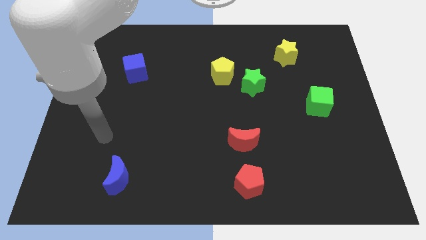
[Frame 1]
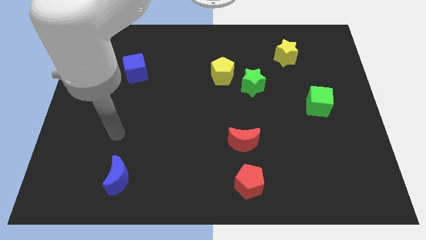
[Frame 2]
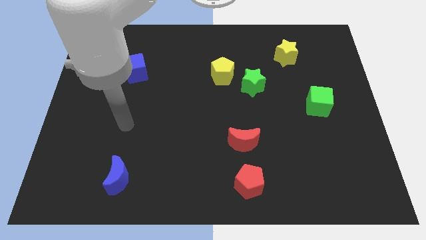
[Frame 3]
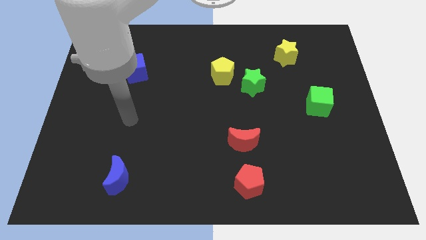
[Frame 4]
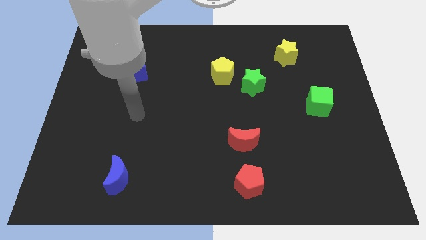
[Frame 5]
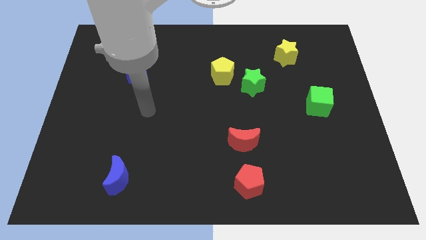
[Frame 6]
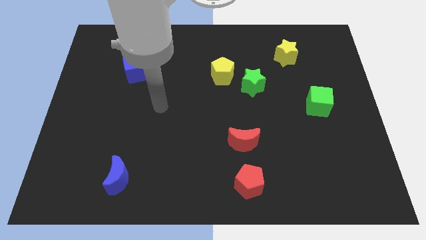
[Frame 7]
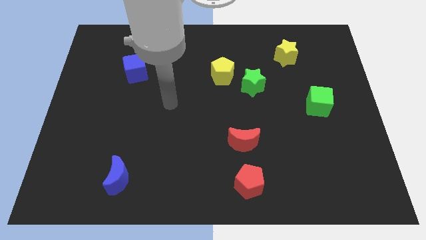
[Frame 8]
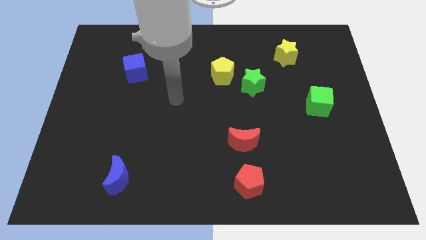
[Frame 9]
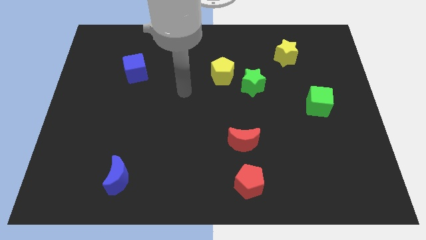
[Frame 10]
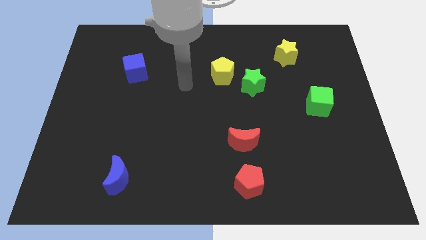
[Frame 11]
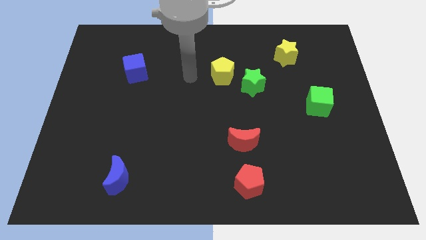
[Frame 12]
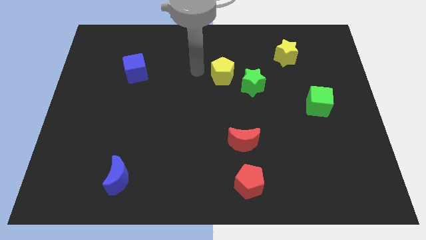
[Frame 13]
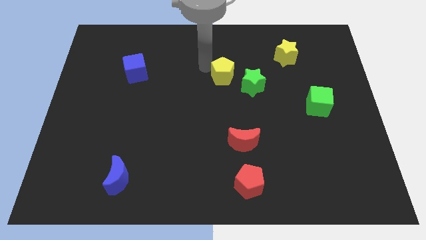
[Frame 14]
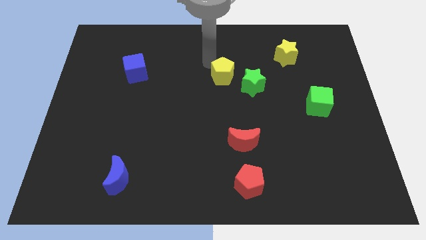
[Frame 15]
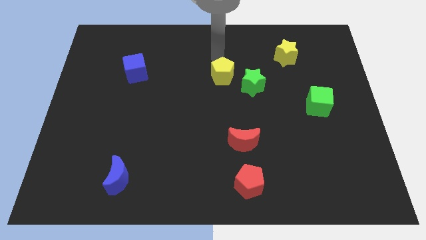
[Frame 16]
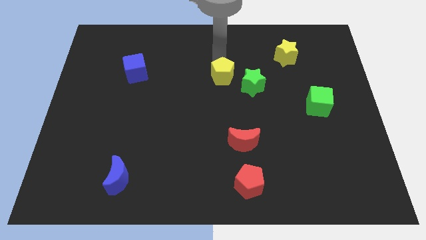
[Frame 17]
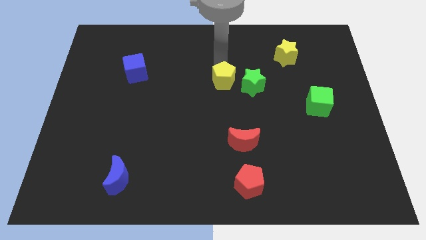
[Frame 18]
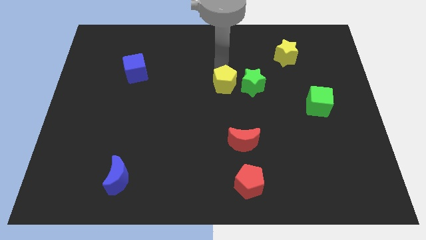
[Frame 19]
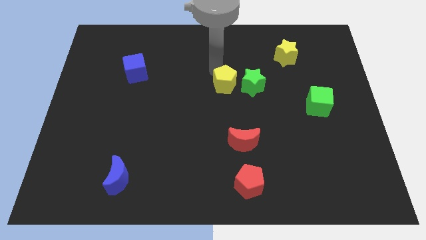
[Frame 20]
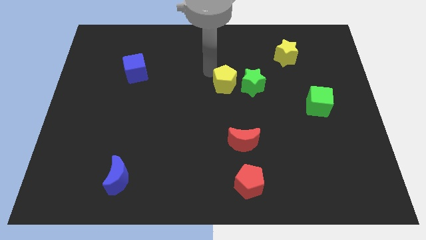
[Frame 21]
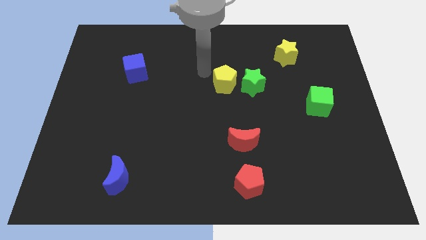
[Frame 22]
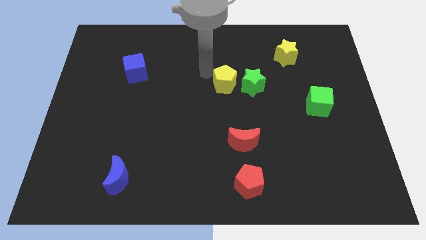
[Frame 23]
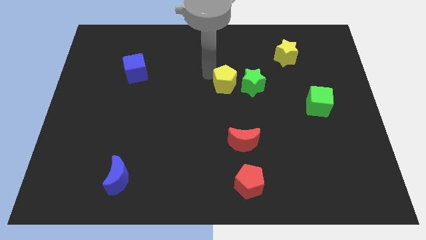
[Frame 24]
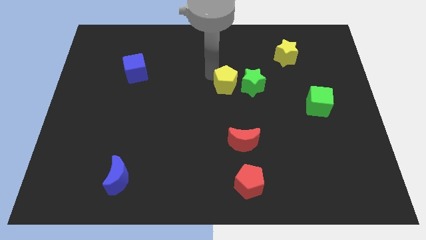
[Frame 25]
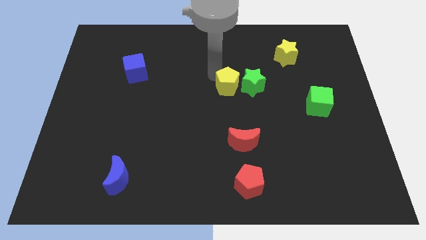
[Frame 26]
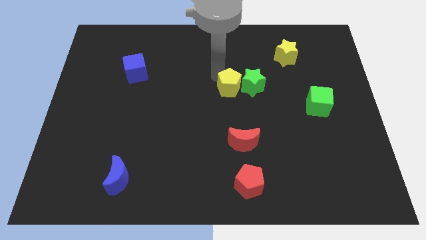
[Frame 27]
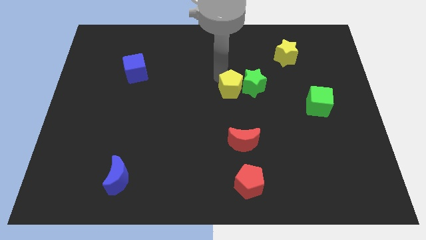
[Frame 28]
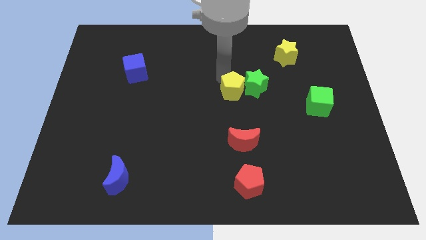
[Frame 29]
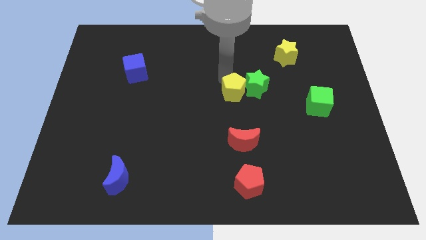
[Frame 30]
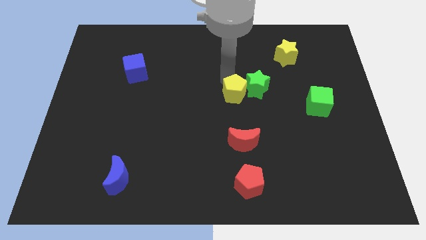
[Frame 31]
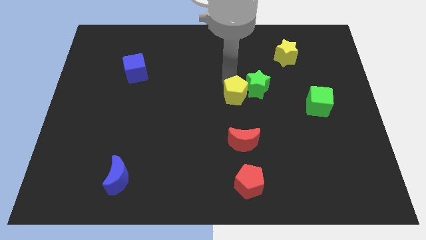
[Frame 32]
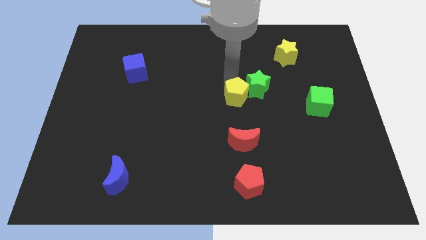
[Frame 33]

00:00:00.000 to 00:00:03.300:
slide the yellow pentagon down and right a little bit

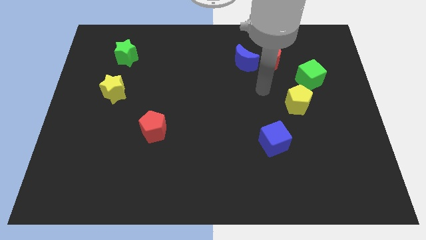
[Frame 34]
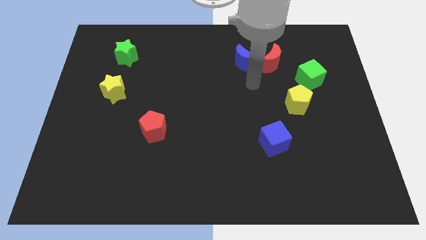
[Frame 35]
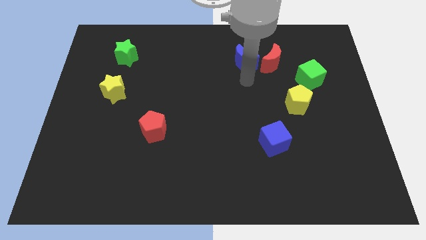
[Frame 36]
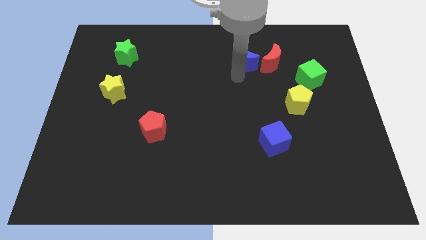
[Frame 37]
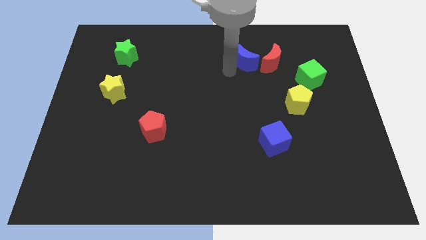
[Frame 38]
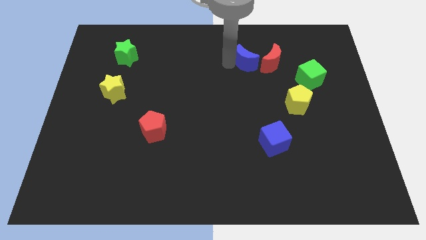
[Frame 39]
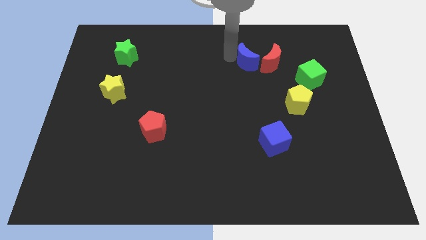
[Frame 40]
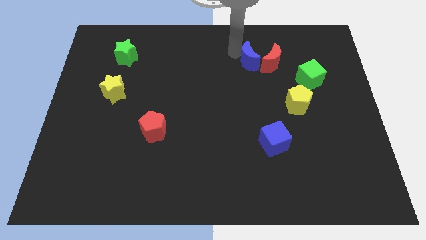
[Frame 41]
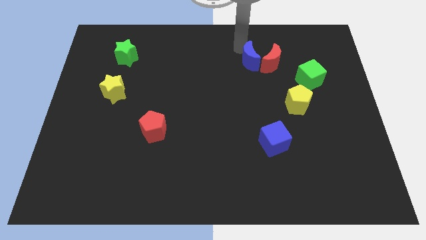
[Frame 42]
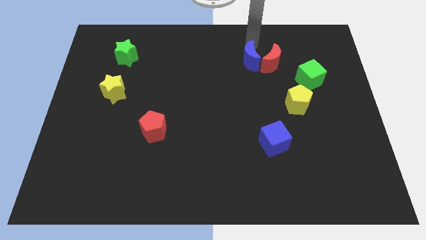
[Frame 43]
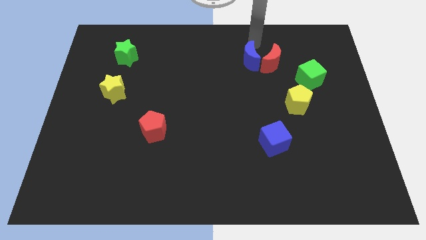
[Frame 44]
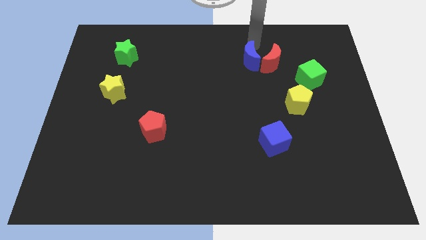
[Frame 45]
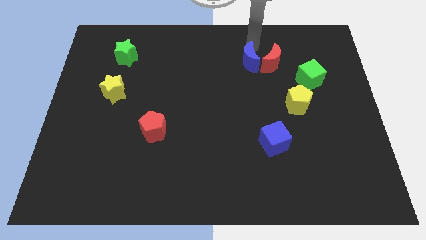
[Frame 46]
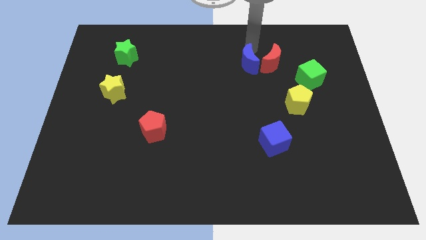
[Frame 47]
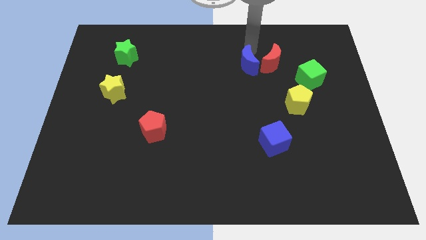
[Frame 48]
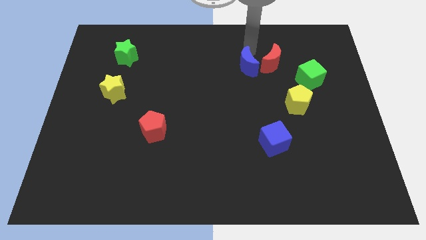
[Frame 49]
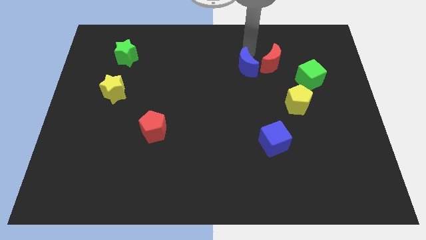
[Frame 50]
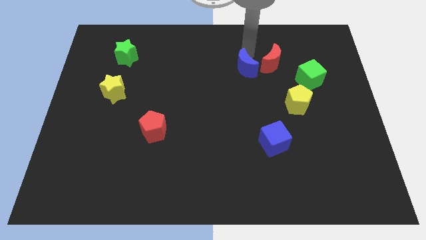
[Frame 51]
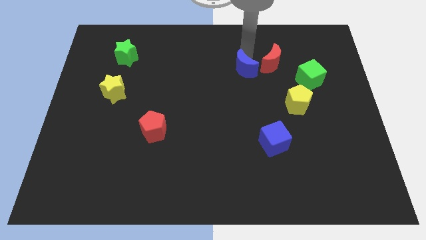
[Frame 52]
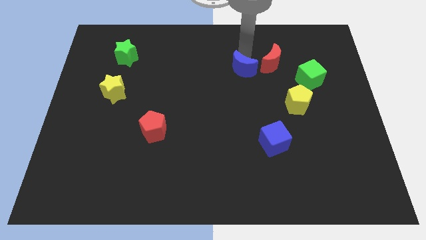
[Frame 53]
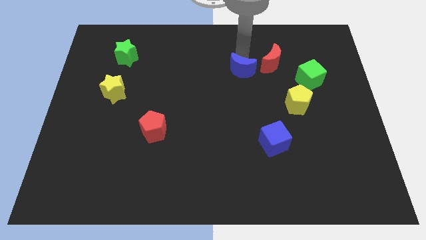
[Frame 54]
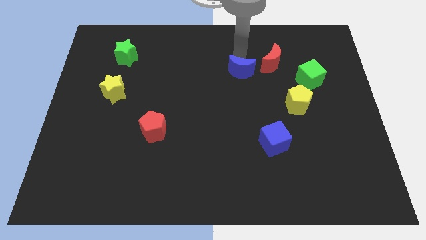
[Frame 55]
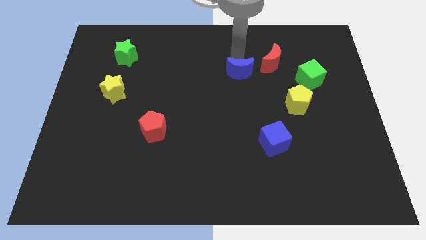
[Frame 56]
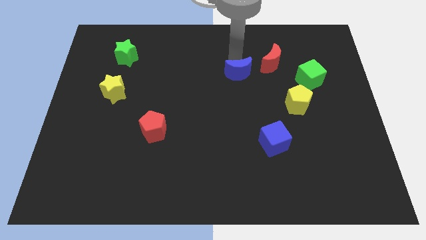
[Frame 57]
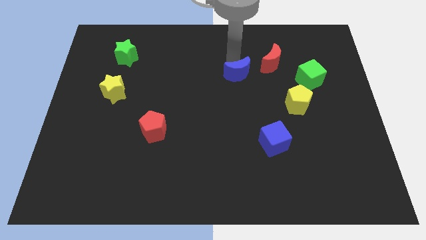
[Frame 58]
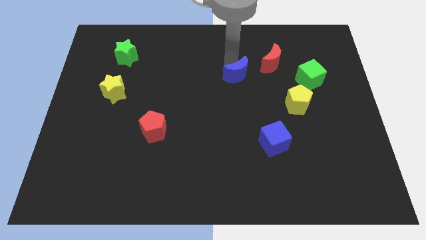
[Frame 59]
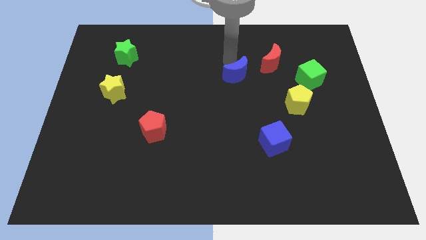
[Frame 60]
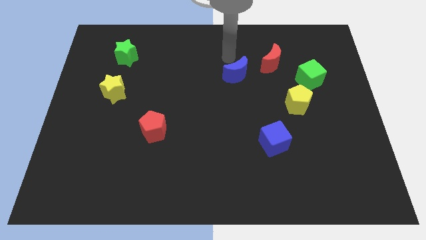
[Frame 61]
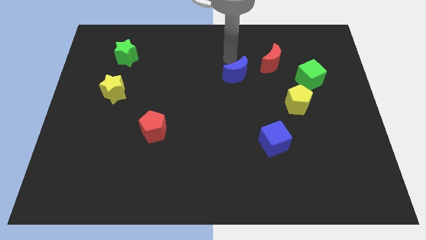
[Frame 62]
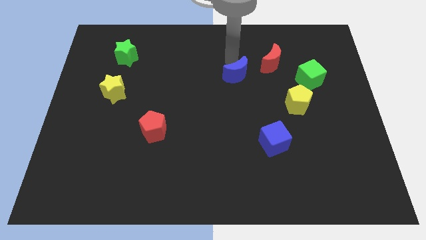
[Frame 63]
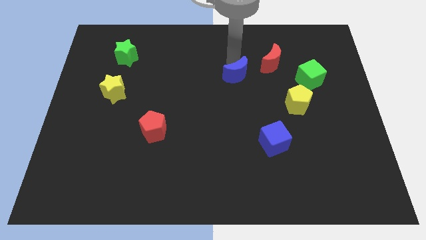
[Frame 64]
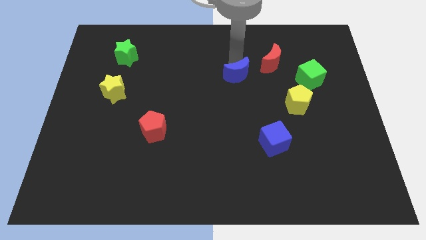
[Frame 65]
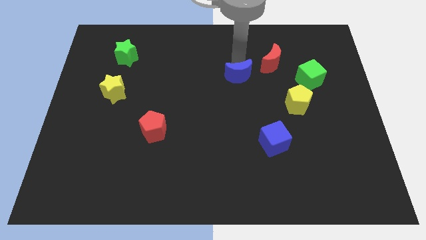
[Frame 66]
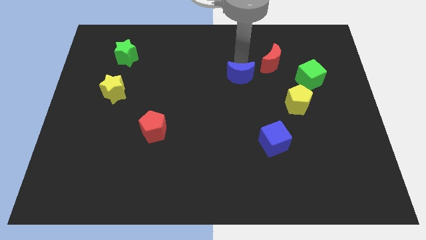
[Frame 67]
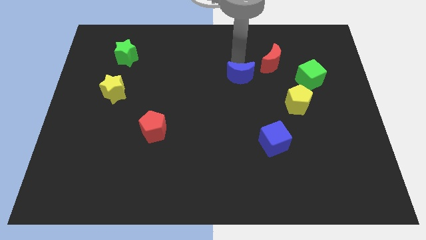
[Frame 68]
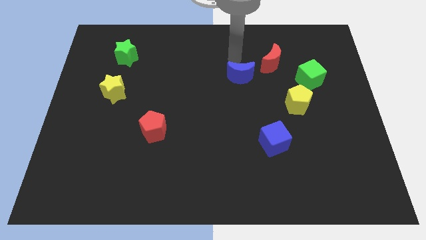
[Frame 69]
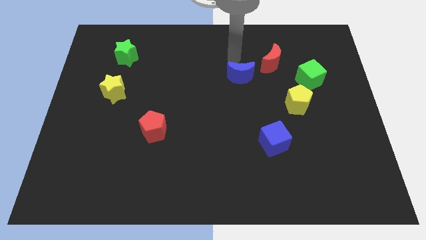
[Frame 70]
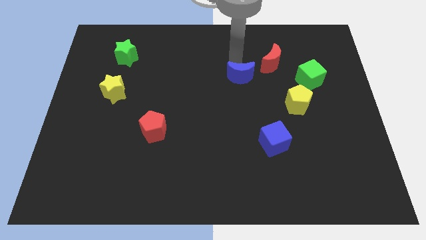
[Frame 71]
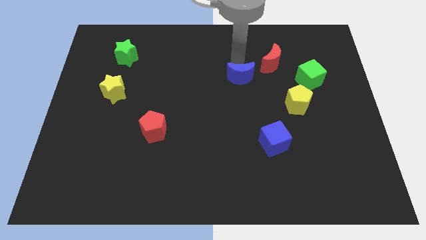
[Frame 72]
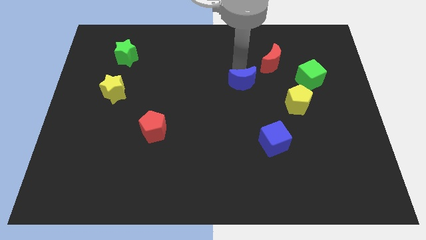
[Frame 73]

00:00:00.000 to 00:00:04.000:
push the blue moon a little bit down

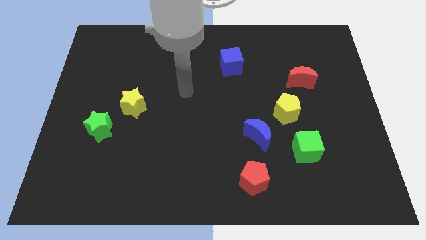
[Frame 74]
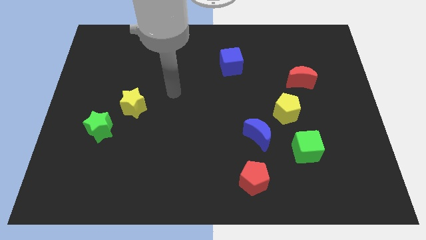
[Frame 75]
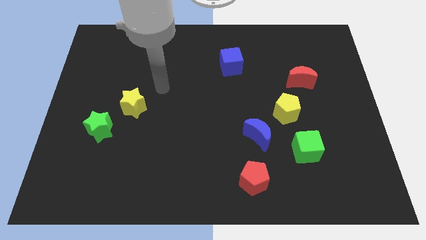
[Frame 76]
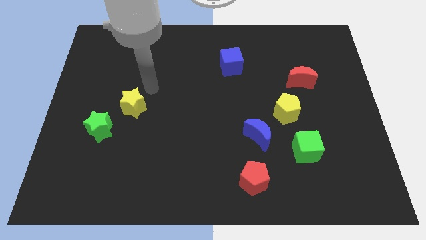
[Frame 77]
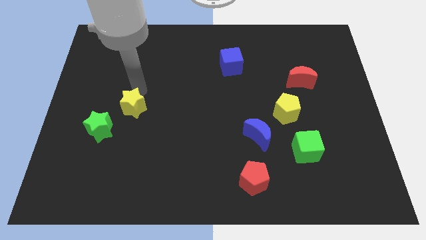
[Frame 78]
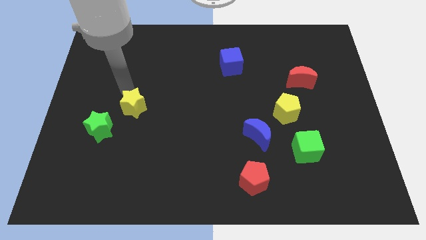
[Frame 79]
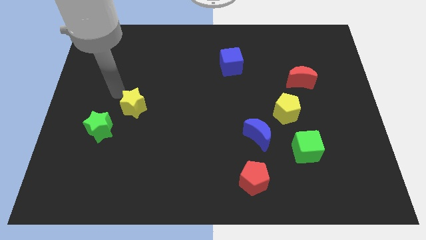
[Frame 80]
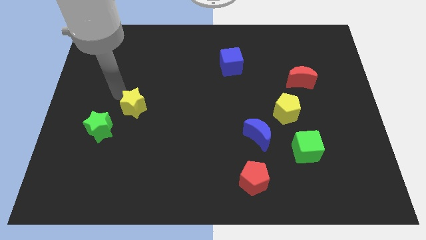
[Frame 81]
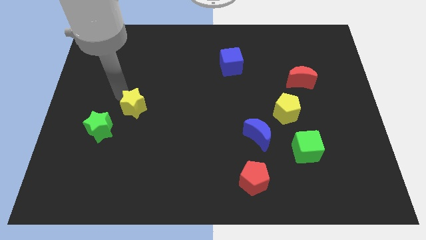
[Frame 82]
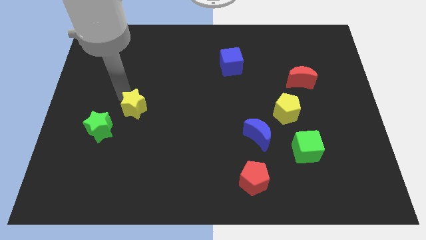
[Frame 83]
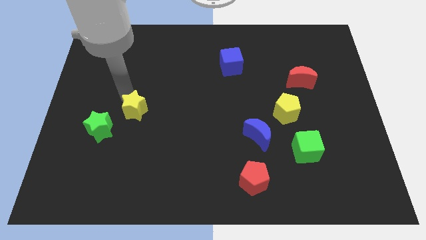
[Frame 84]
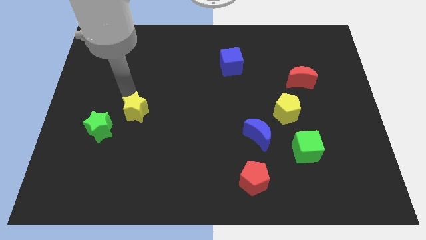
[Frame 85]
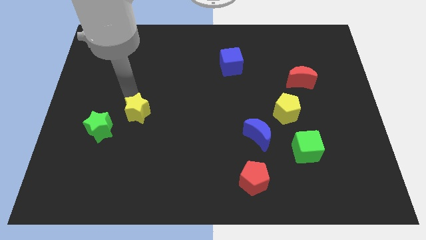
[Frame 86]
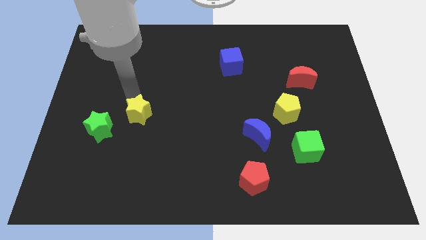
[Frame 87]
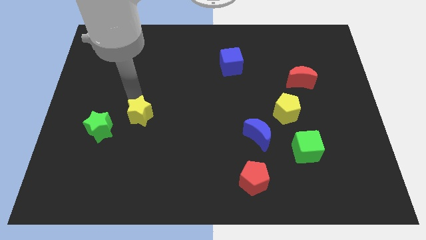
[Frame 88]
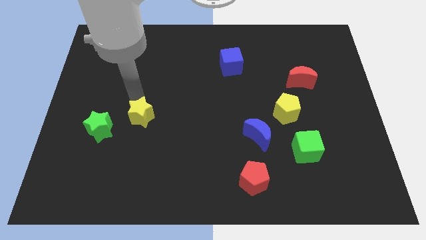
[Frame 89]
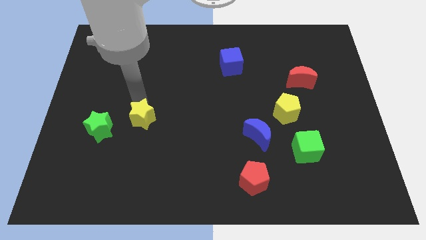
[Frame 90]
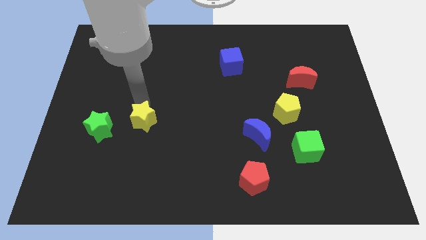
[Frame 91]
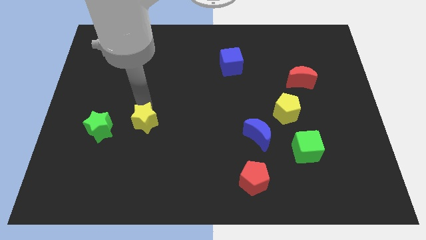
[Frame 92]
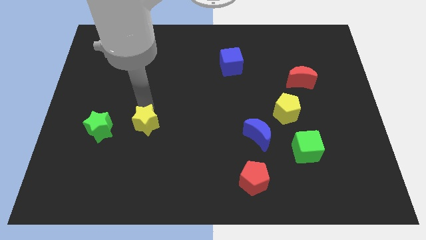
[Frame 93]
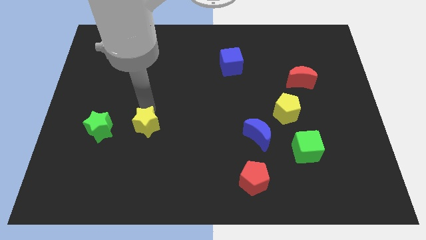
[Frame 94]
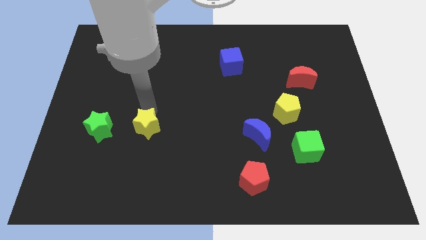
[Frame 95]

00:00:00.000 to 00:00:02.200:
slightly slide the yellow star down and right diagonally
